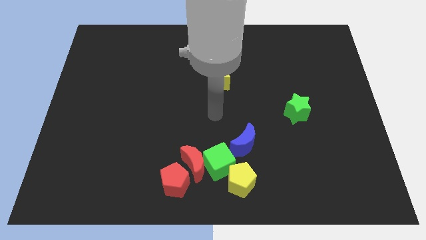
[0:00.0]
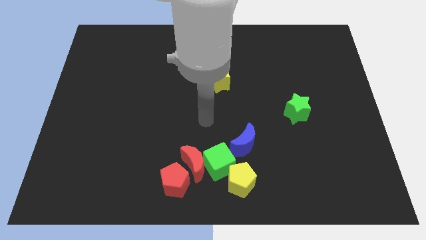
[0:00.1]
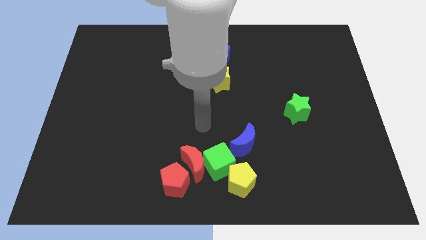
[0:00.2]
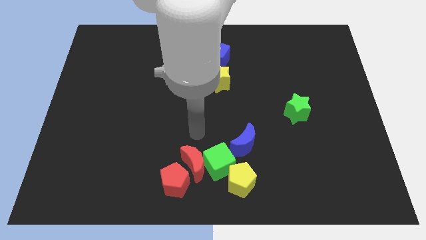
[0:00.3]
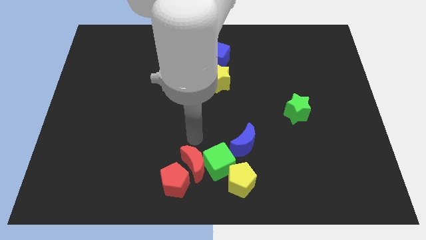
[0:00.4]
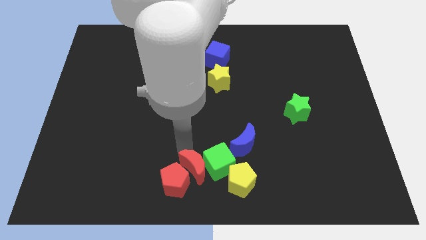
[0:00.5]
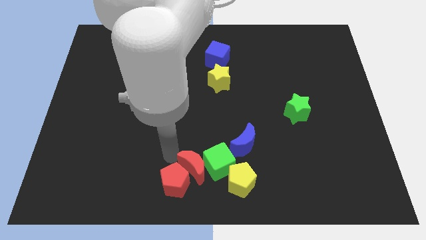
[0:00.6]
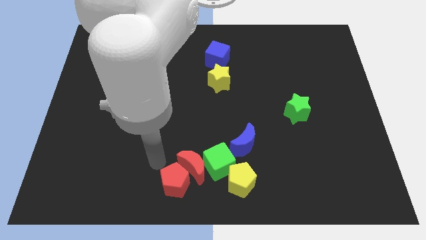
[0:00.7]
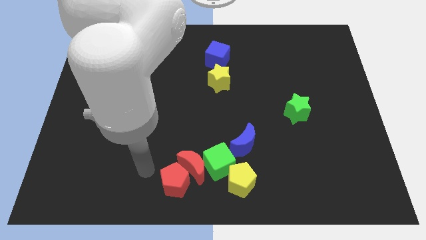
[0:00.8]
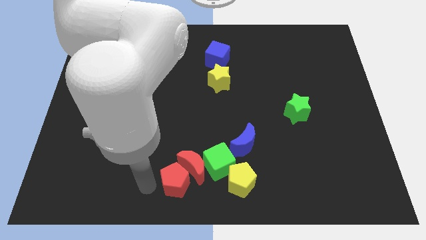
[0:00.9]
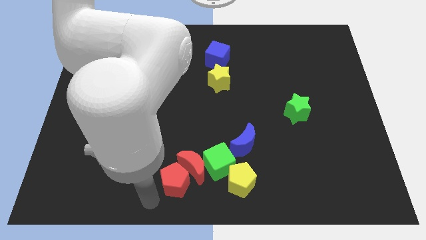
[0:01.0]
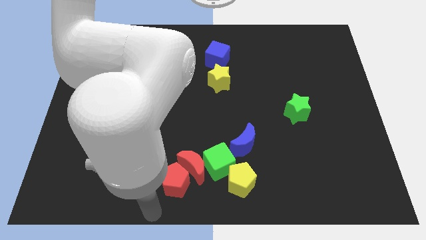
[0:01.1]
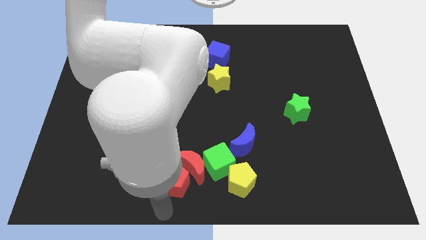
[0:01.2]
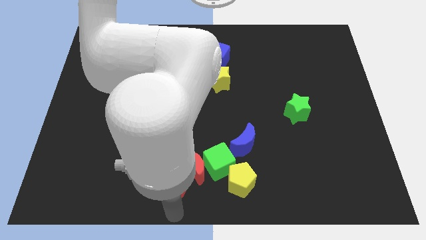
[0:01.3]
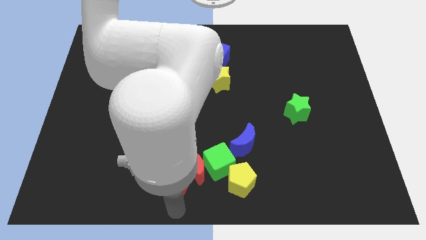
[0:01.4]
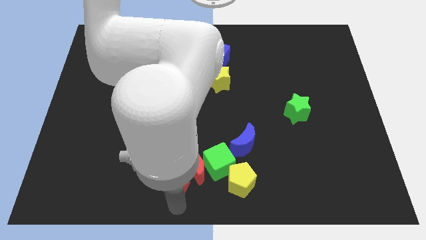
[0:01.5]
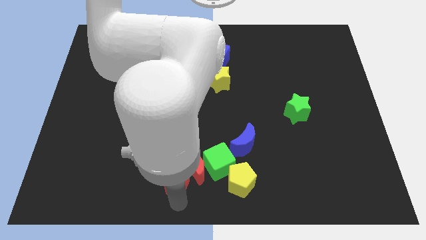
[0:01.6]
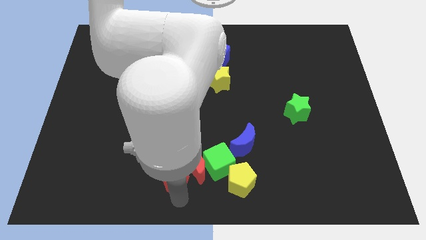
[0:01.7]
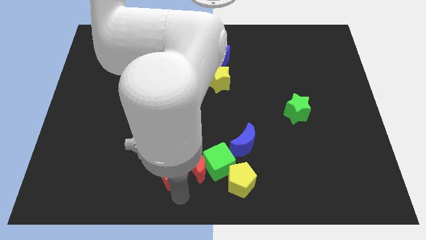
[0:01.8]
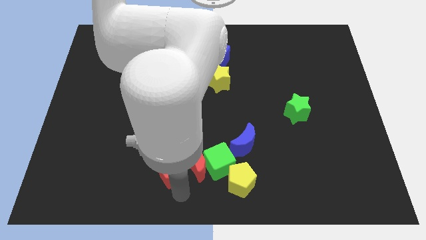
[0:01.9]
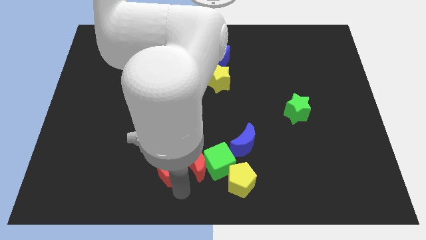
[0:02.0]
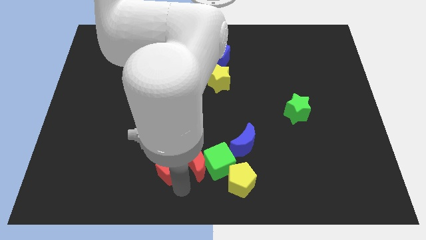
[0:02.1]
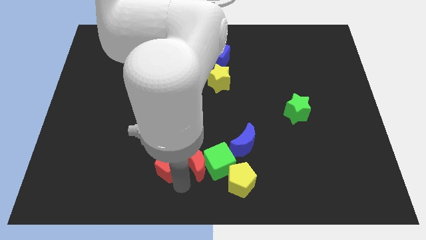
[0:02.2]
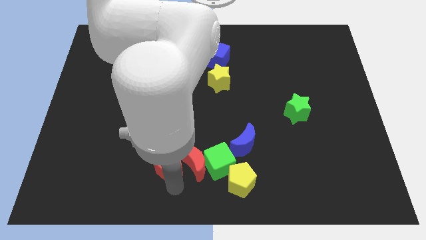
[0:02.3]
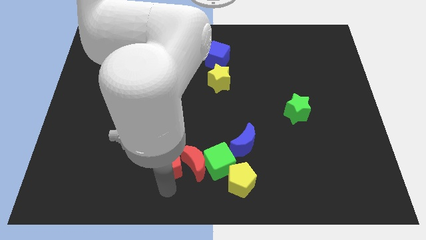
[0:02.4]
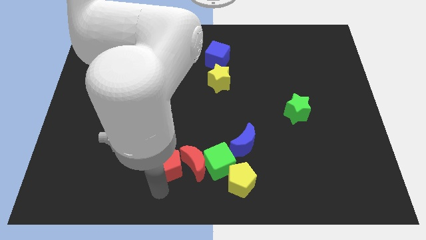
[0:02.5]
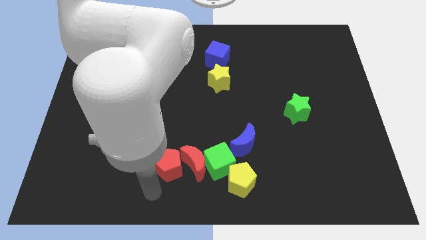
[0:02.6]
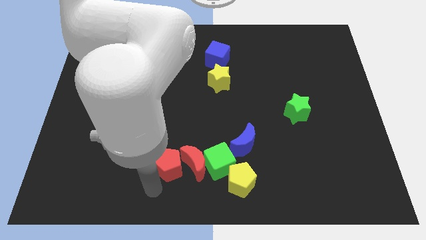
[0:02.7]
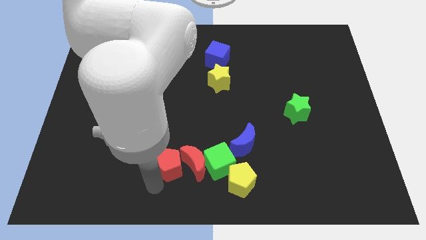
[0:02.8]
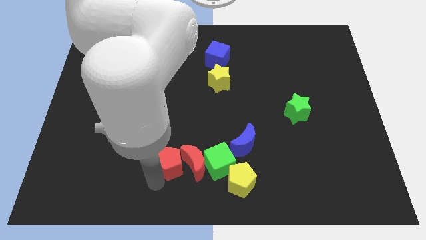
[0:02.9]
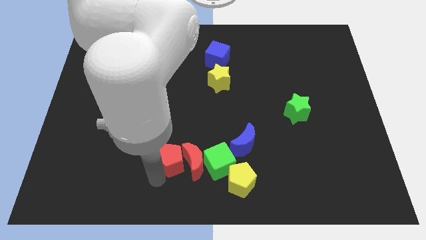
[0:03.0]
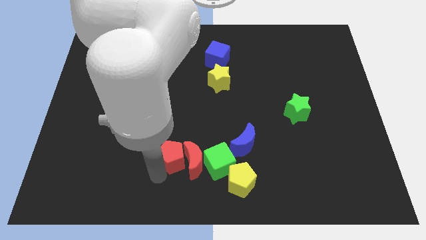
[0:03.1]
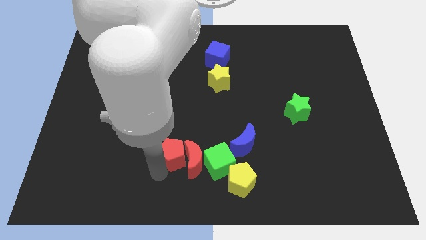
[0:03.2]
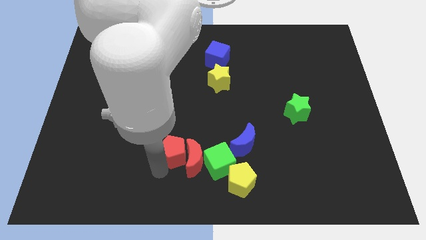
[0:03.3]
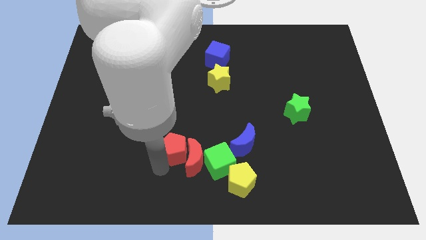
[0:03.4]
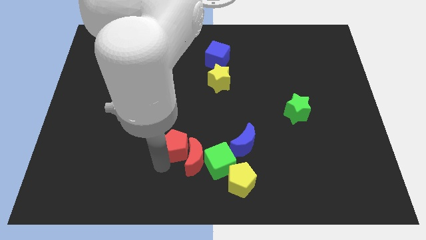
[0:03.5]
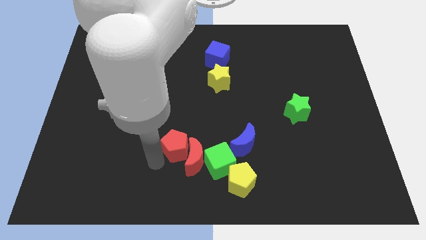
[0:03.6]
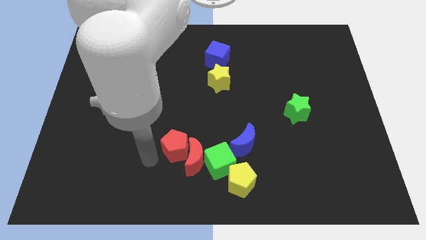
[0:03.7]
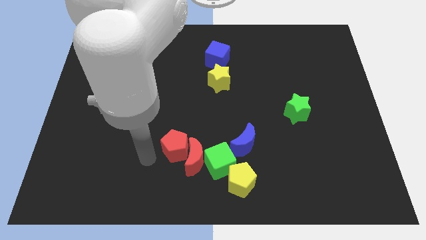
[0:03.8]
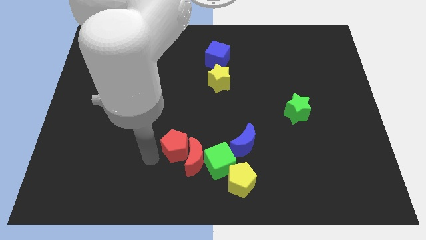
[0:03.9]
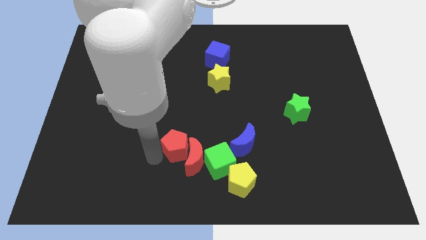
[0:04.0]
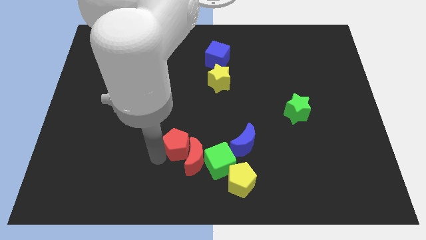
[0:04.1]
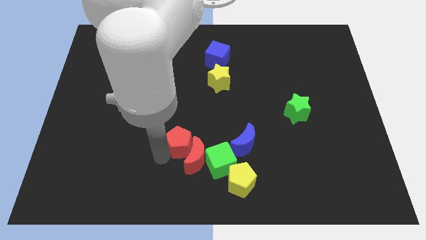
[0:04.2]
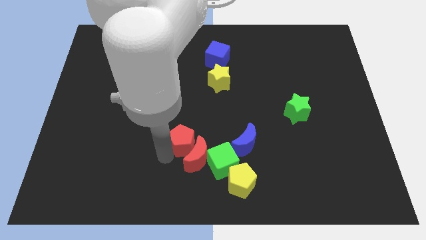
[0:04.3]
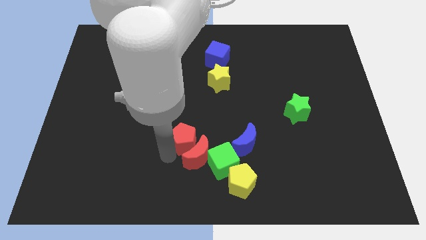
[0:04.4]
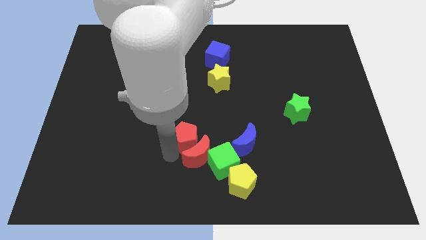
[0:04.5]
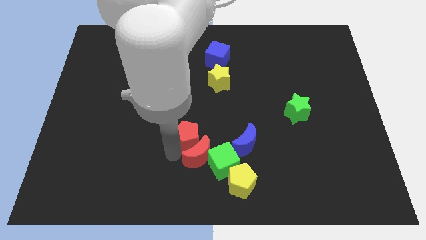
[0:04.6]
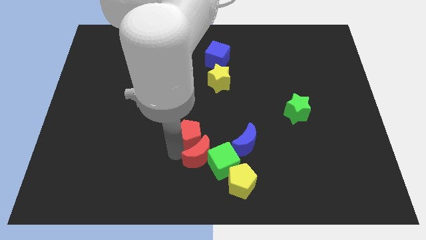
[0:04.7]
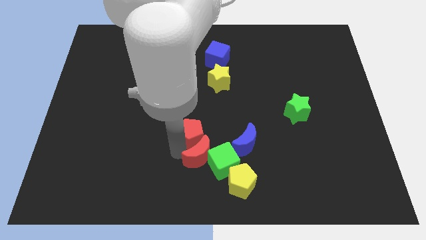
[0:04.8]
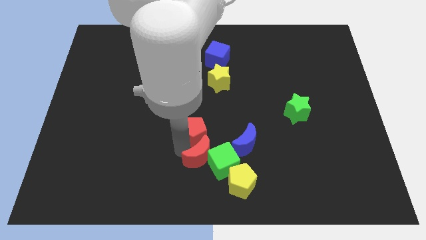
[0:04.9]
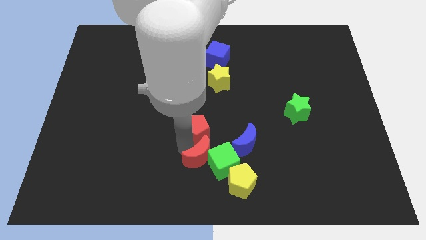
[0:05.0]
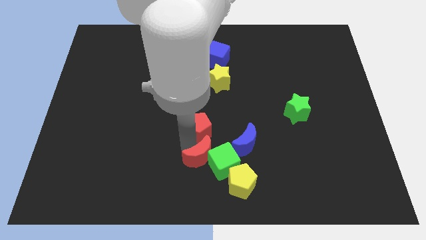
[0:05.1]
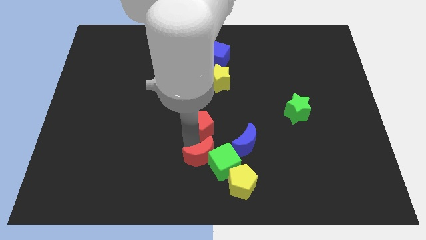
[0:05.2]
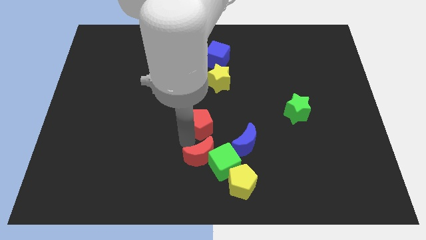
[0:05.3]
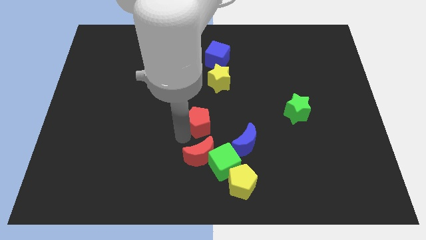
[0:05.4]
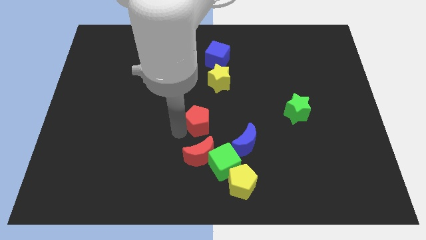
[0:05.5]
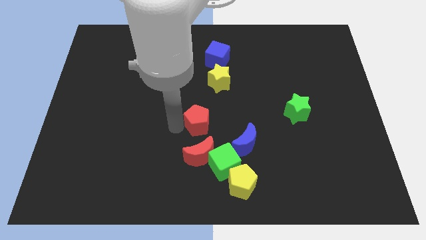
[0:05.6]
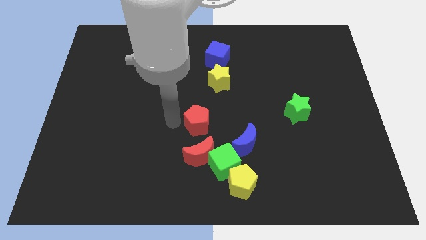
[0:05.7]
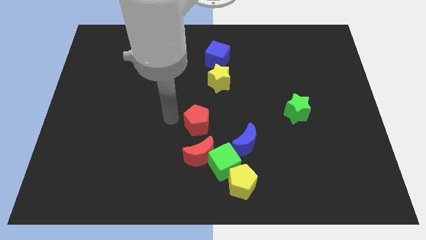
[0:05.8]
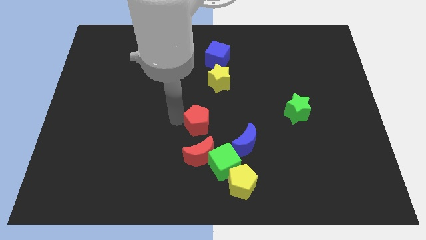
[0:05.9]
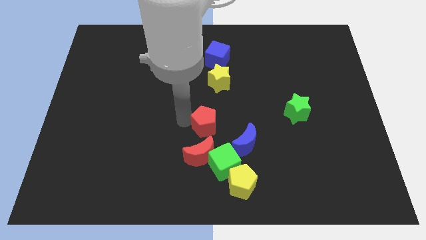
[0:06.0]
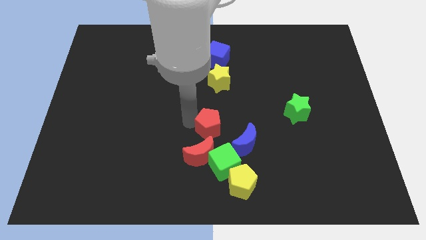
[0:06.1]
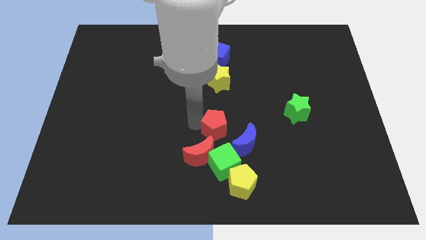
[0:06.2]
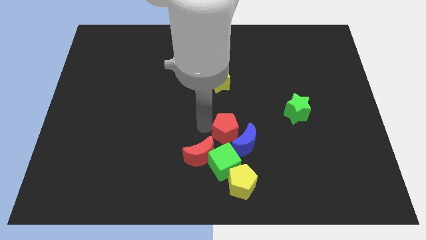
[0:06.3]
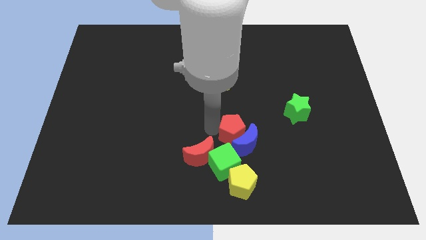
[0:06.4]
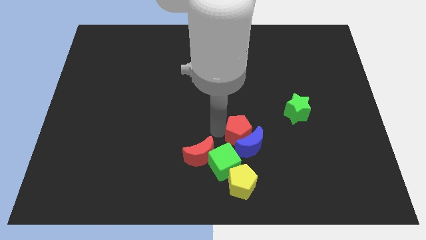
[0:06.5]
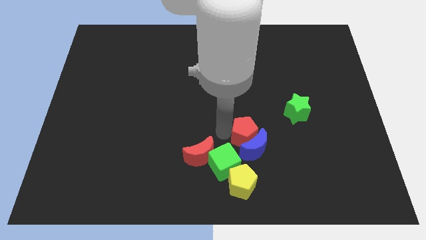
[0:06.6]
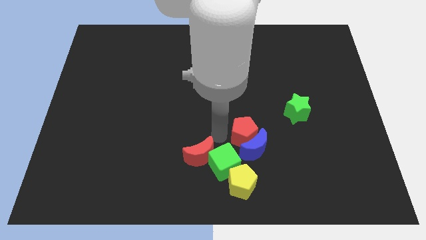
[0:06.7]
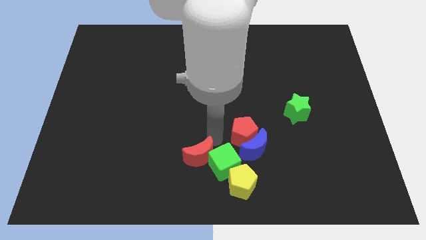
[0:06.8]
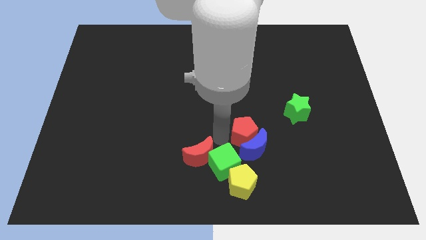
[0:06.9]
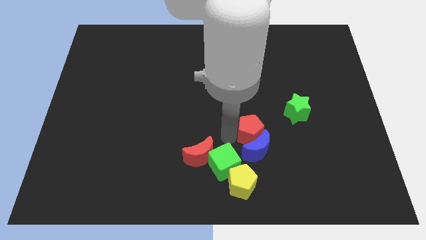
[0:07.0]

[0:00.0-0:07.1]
slide the red pentagon to the top right of the blue moon
